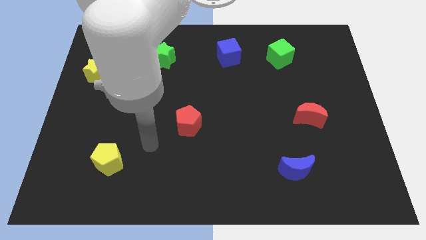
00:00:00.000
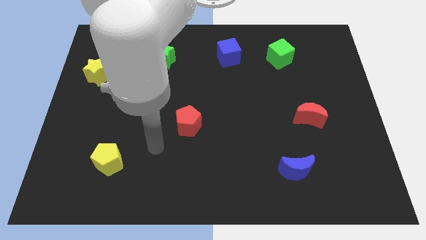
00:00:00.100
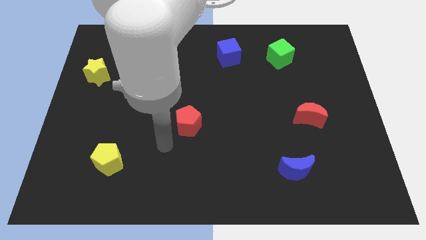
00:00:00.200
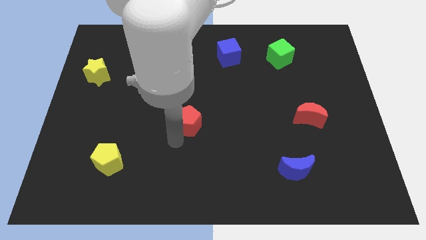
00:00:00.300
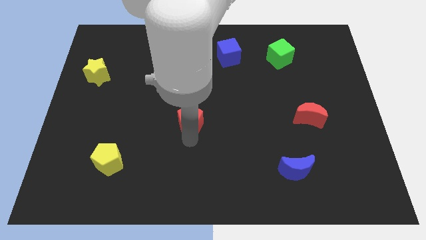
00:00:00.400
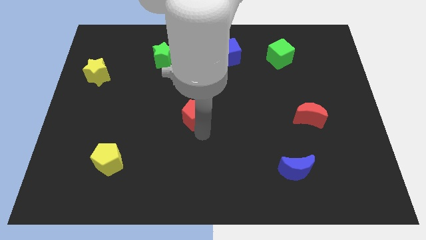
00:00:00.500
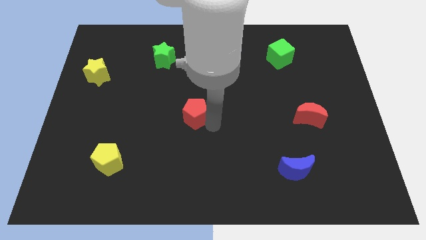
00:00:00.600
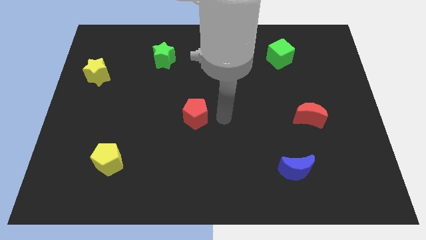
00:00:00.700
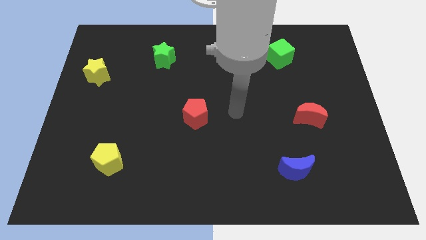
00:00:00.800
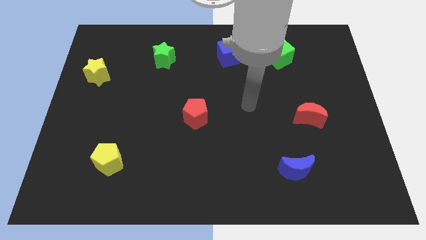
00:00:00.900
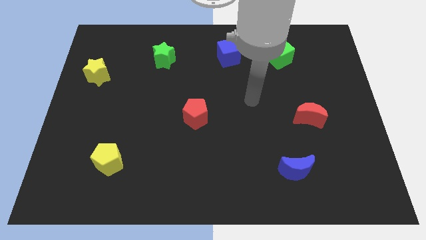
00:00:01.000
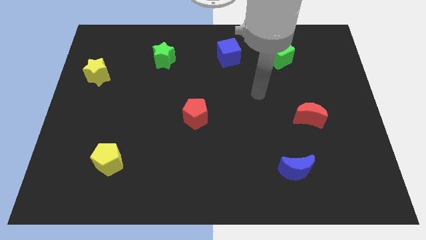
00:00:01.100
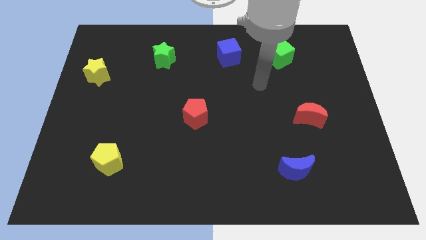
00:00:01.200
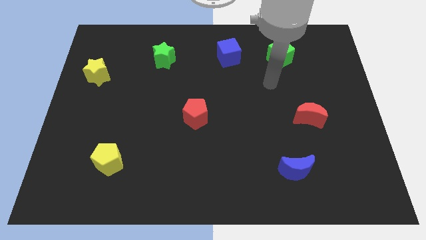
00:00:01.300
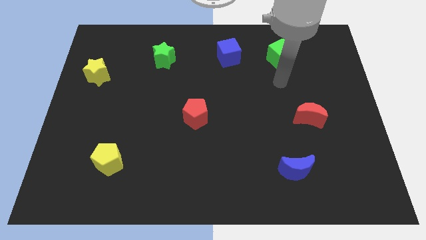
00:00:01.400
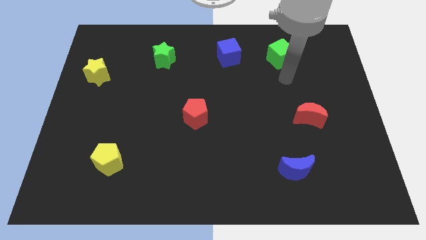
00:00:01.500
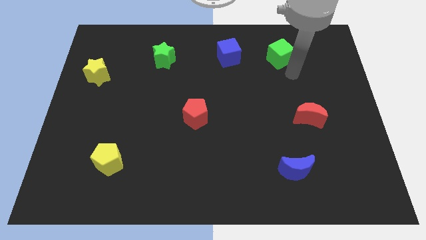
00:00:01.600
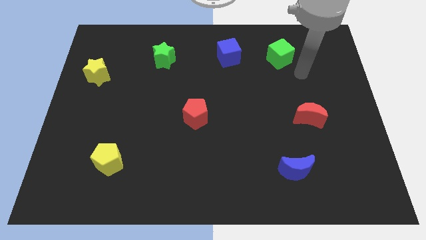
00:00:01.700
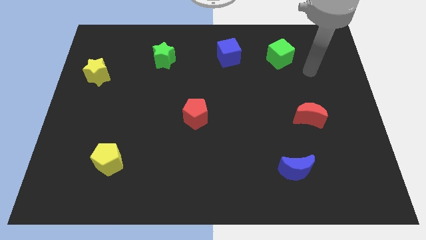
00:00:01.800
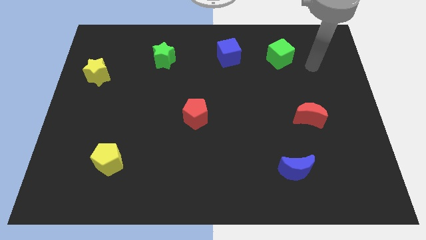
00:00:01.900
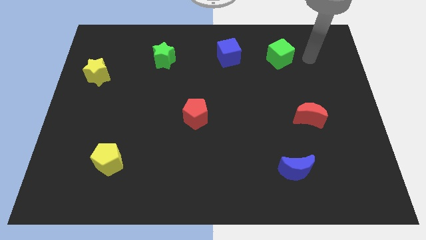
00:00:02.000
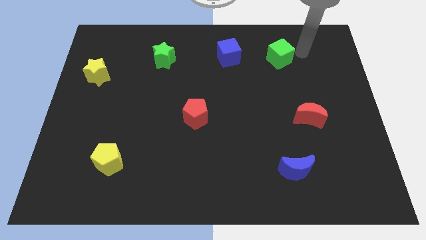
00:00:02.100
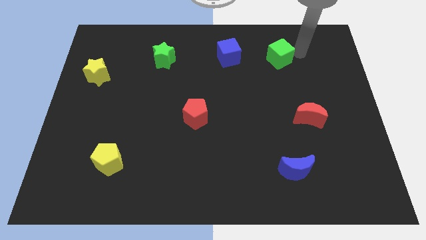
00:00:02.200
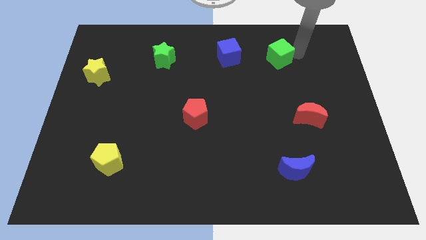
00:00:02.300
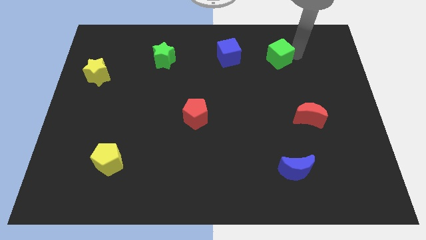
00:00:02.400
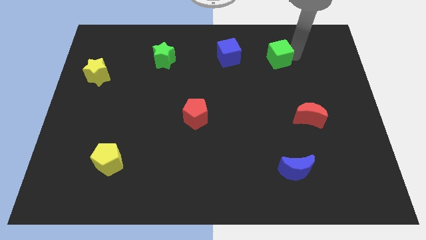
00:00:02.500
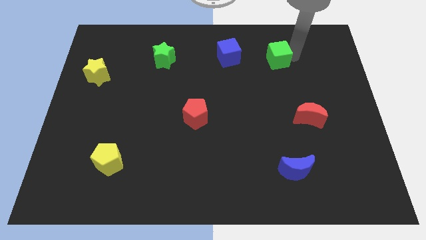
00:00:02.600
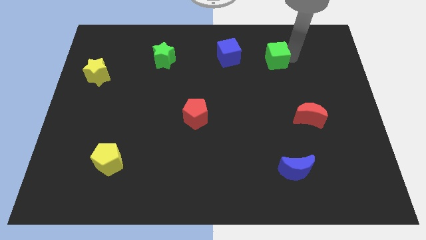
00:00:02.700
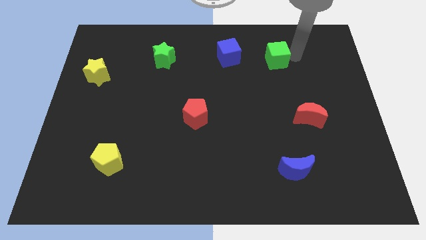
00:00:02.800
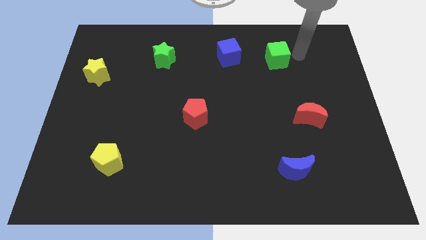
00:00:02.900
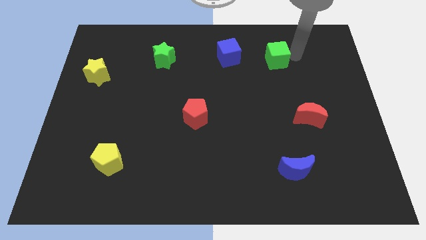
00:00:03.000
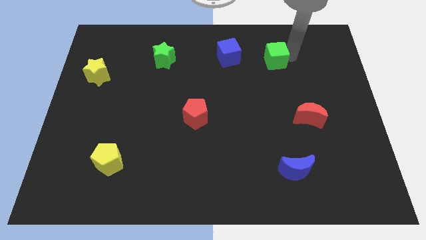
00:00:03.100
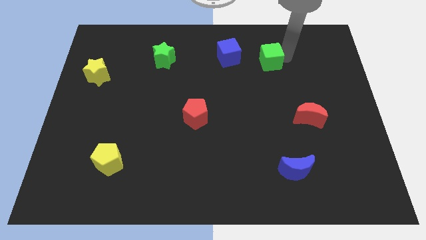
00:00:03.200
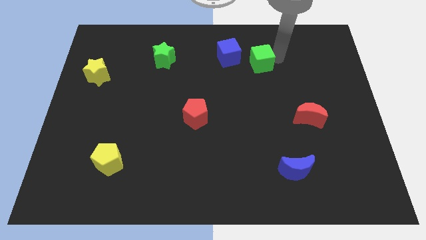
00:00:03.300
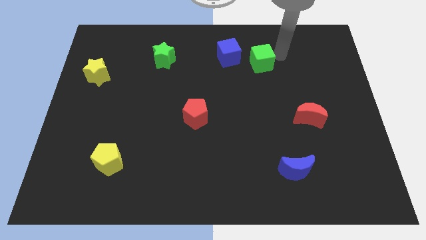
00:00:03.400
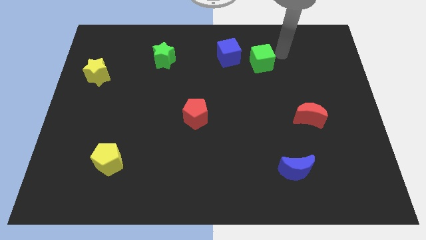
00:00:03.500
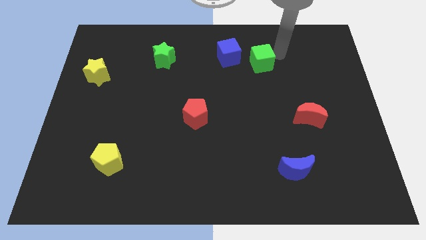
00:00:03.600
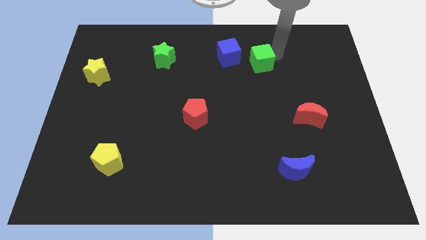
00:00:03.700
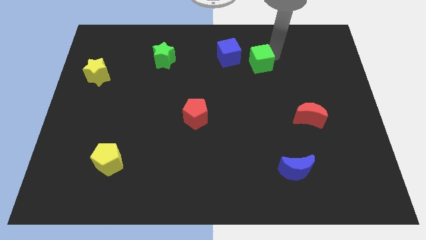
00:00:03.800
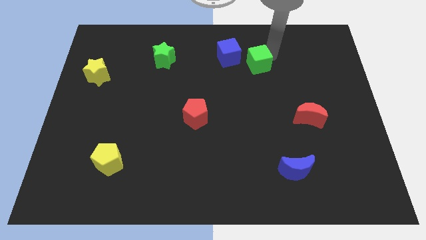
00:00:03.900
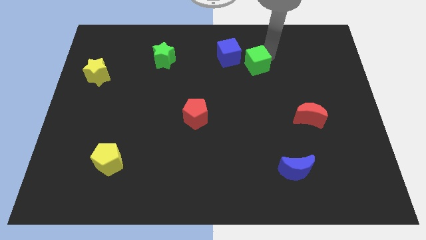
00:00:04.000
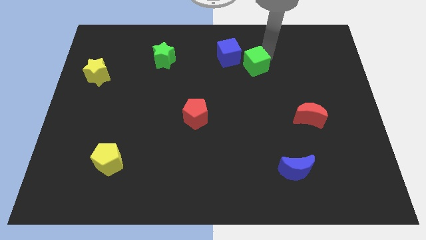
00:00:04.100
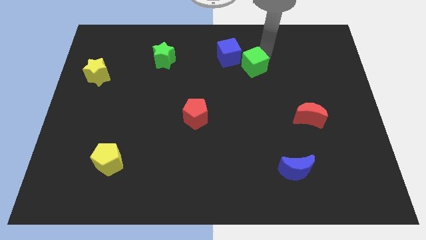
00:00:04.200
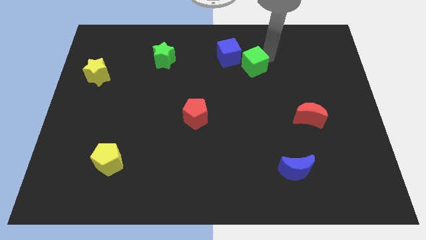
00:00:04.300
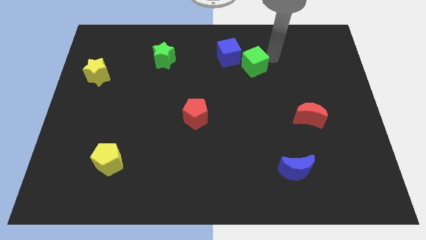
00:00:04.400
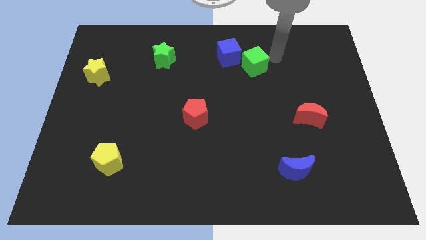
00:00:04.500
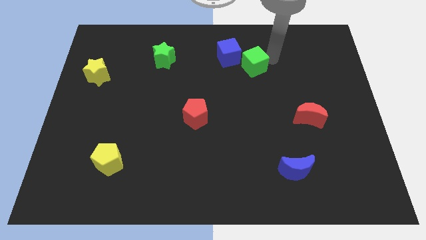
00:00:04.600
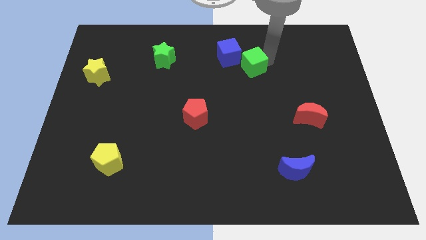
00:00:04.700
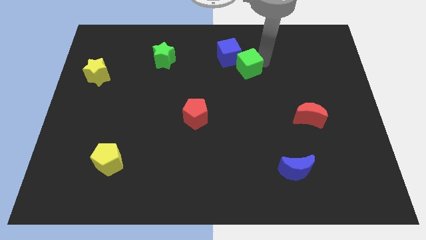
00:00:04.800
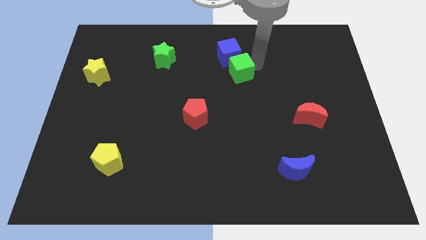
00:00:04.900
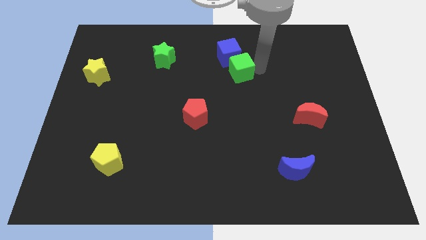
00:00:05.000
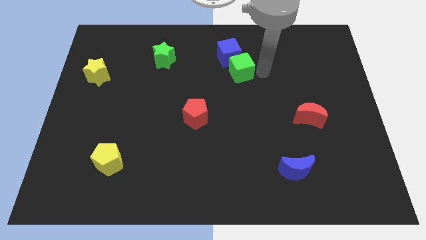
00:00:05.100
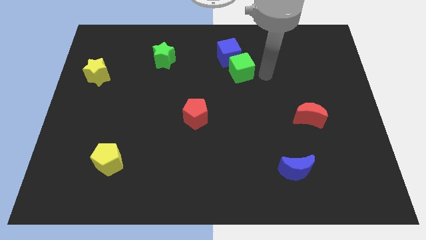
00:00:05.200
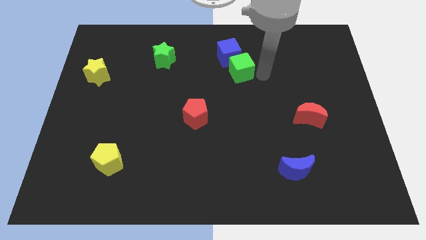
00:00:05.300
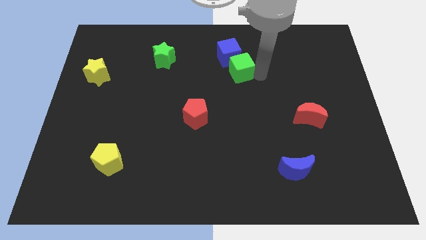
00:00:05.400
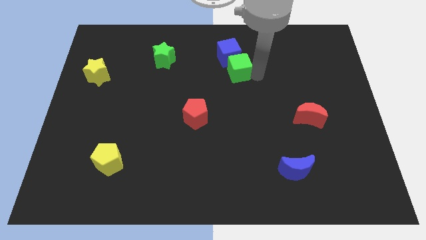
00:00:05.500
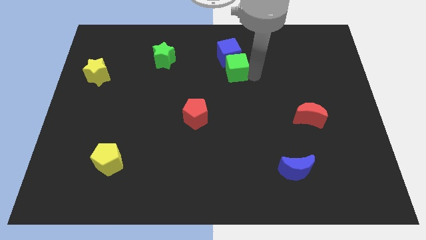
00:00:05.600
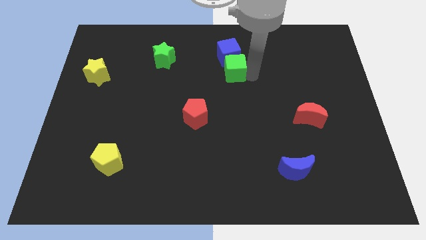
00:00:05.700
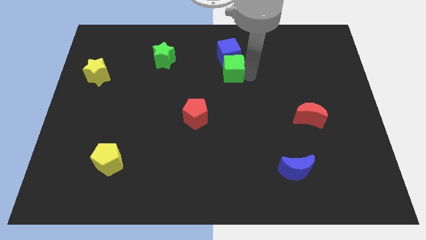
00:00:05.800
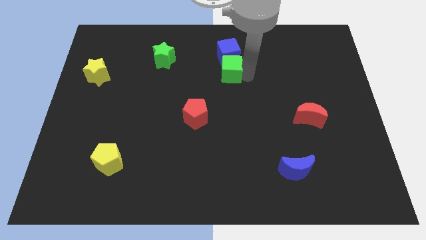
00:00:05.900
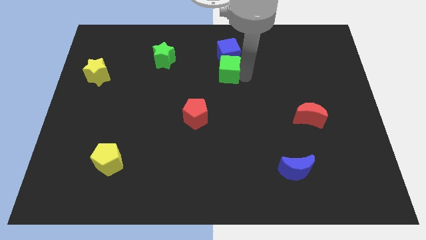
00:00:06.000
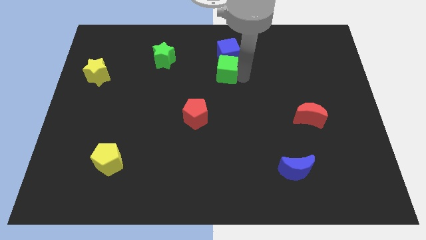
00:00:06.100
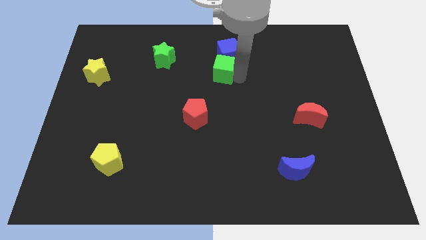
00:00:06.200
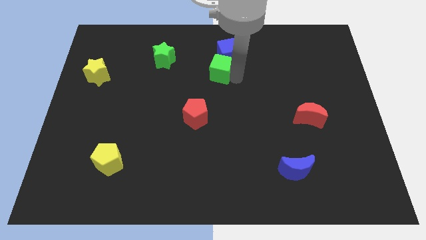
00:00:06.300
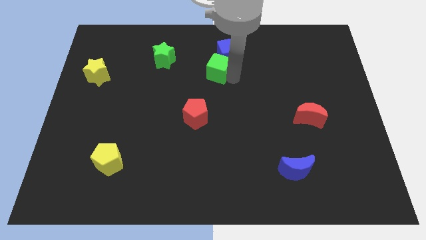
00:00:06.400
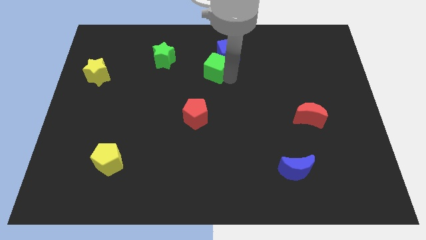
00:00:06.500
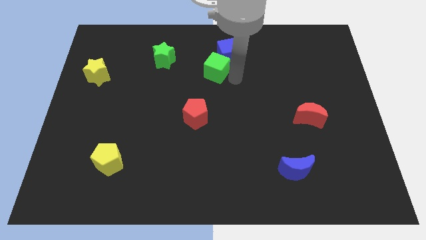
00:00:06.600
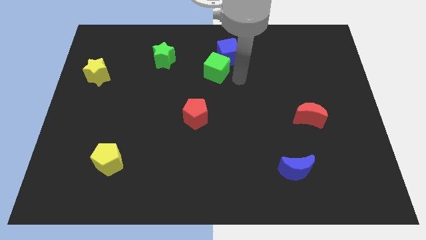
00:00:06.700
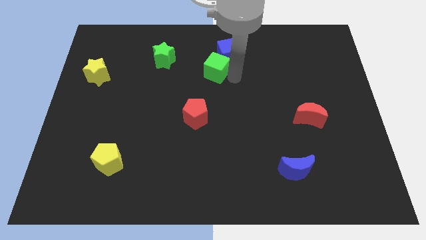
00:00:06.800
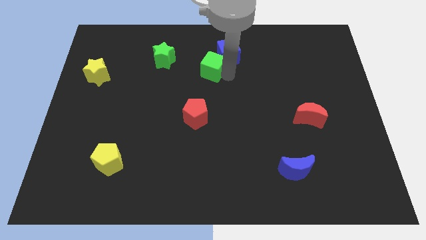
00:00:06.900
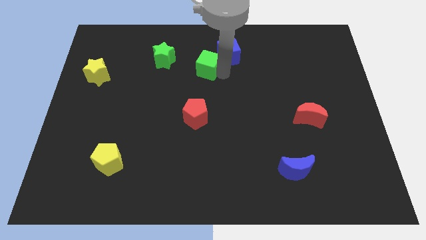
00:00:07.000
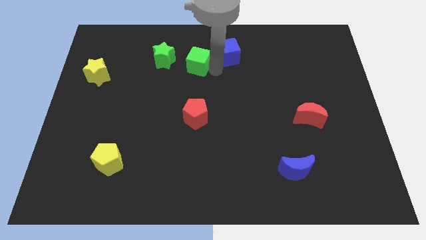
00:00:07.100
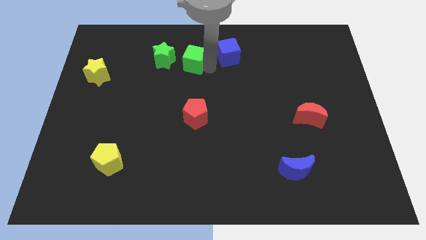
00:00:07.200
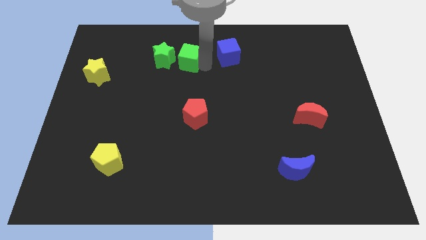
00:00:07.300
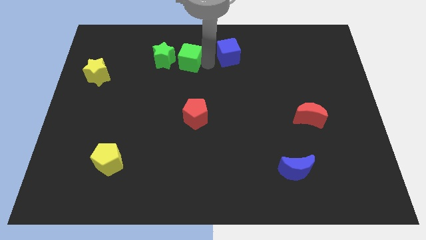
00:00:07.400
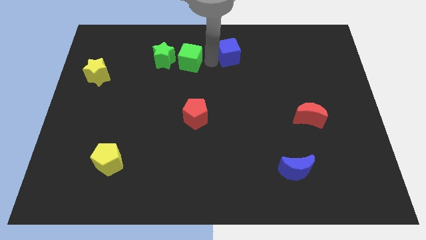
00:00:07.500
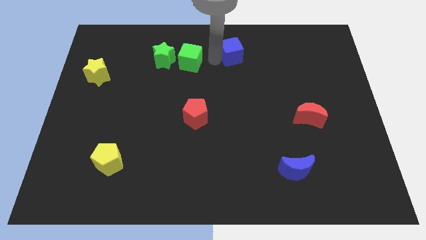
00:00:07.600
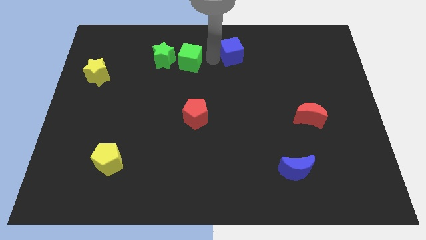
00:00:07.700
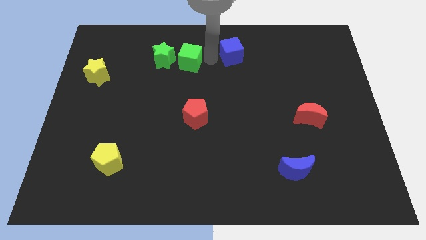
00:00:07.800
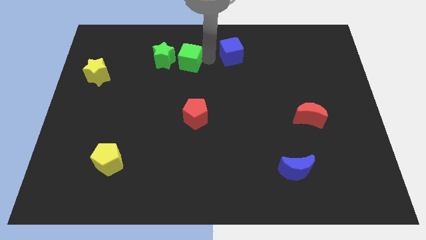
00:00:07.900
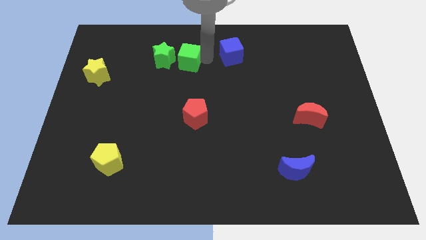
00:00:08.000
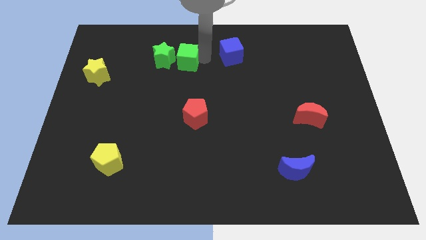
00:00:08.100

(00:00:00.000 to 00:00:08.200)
push the green cube next to the green star
